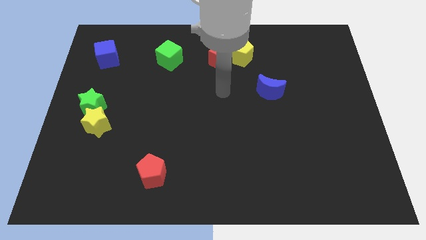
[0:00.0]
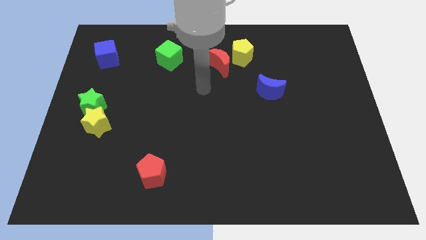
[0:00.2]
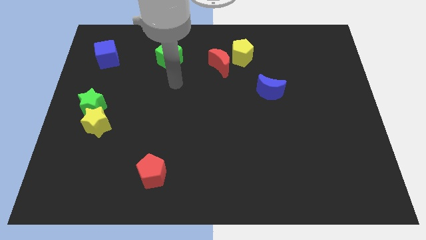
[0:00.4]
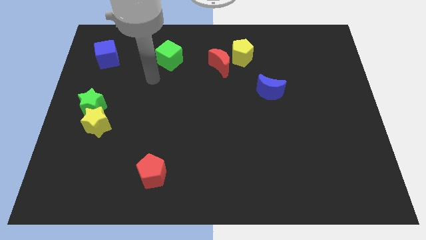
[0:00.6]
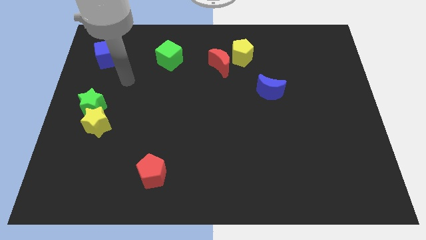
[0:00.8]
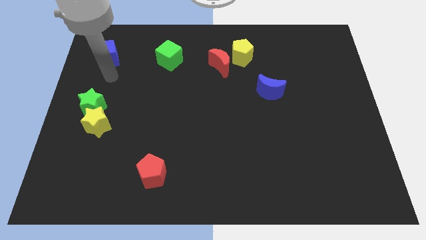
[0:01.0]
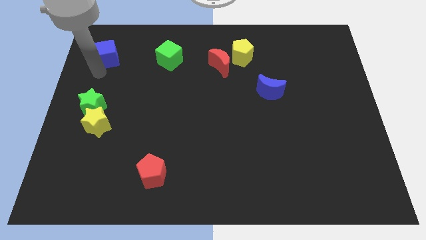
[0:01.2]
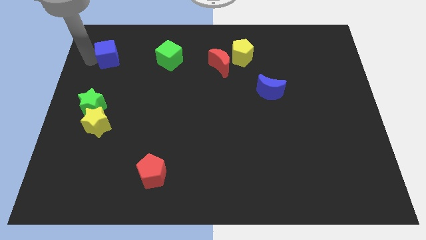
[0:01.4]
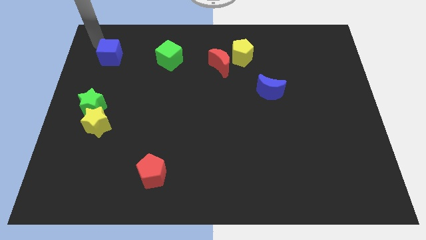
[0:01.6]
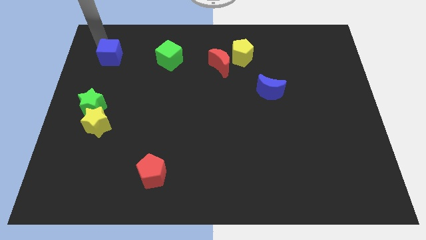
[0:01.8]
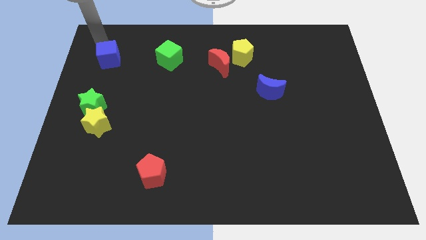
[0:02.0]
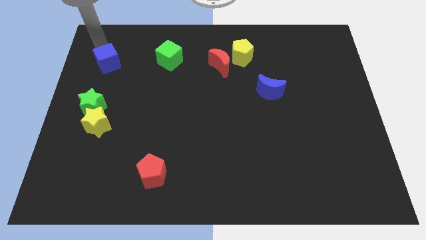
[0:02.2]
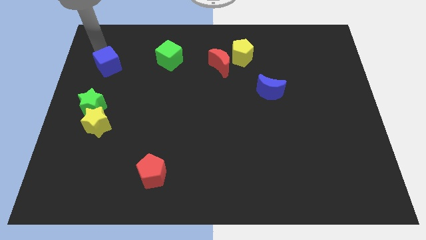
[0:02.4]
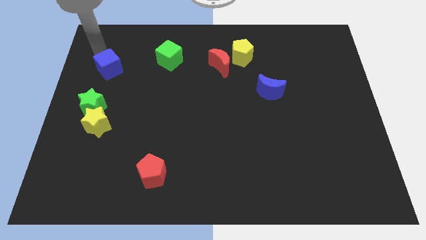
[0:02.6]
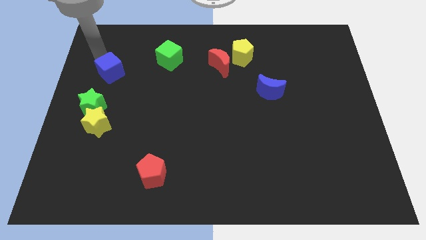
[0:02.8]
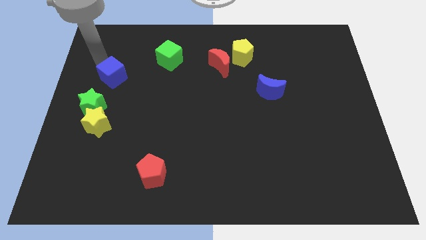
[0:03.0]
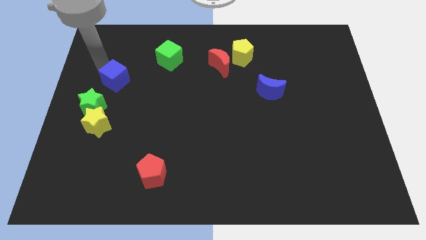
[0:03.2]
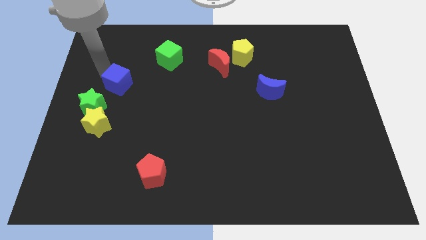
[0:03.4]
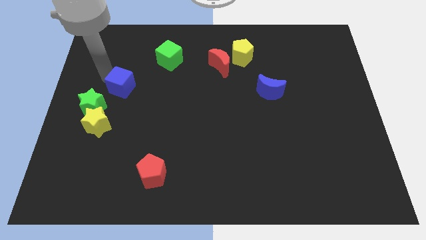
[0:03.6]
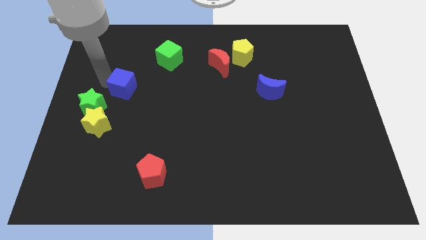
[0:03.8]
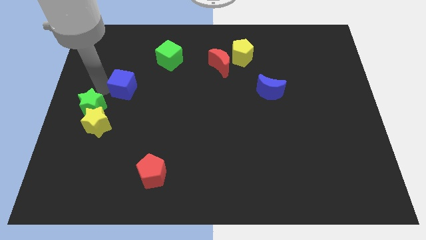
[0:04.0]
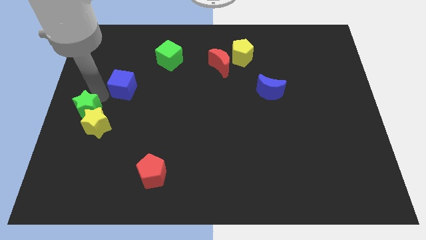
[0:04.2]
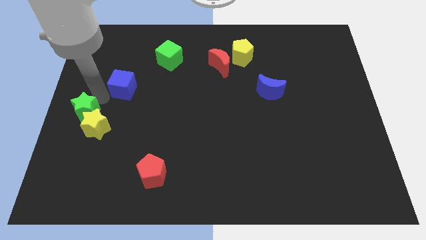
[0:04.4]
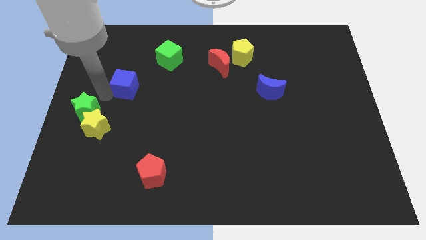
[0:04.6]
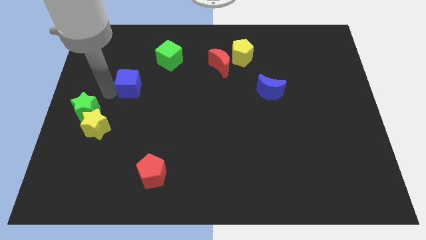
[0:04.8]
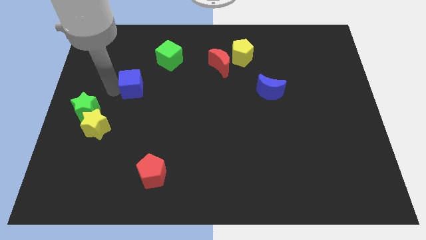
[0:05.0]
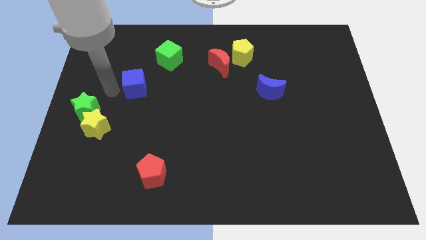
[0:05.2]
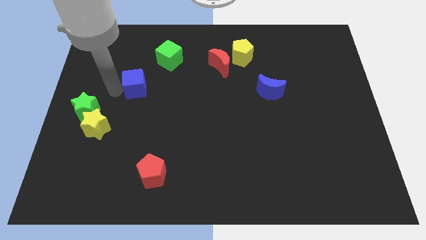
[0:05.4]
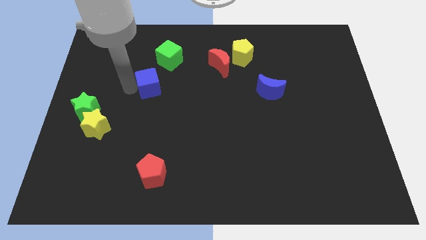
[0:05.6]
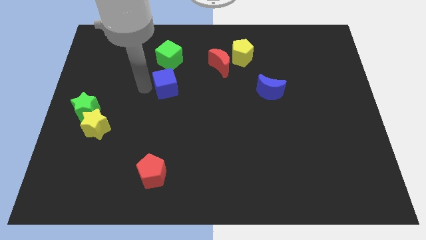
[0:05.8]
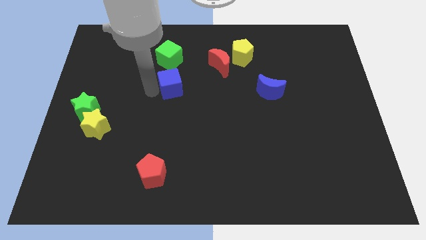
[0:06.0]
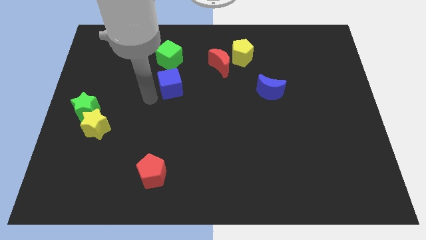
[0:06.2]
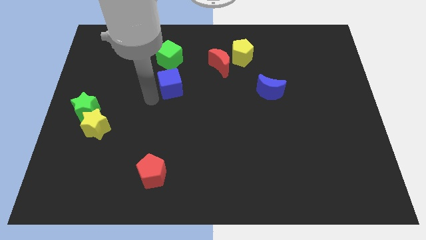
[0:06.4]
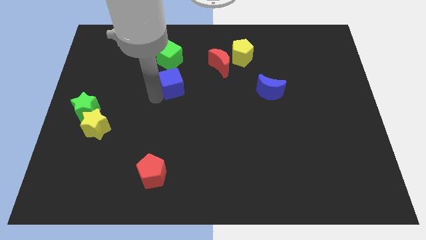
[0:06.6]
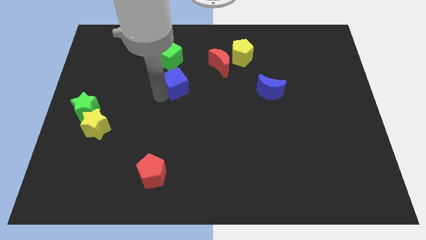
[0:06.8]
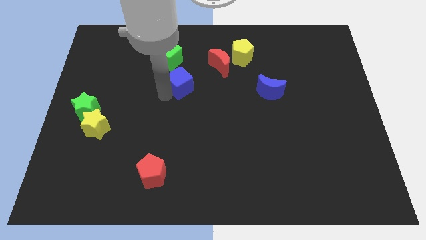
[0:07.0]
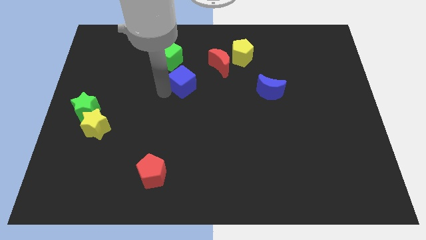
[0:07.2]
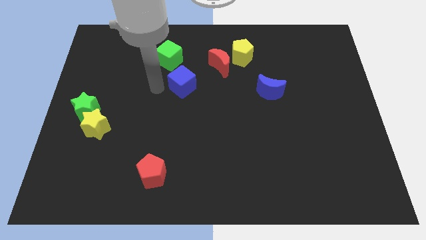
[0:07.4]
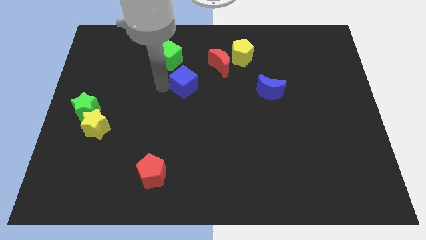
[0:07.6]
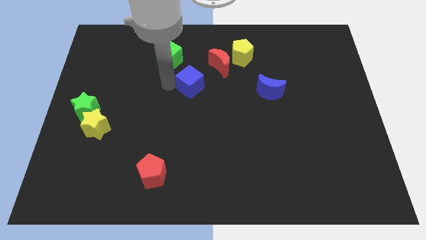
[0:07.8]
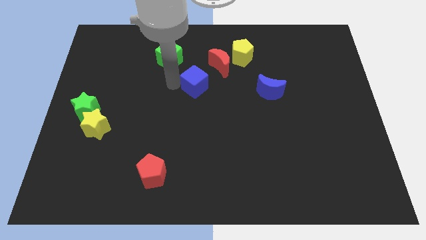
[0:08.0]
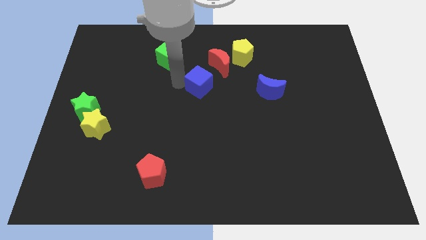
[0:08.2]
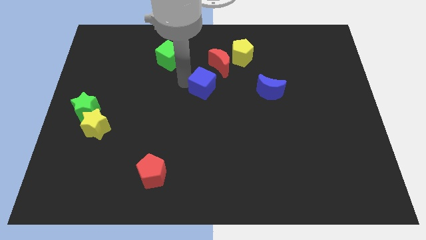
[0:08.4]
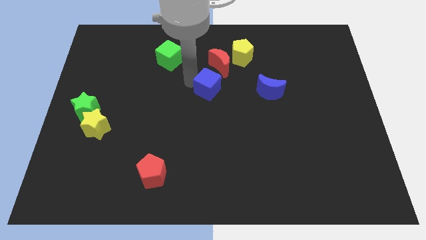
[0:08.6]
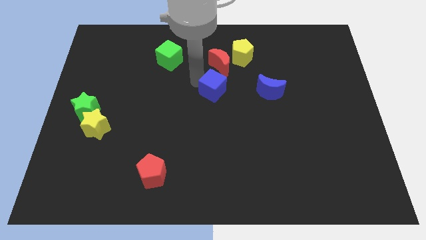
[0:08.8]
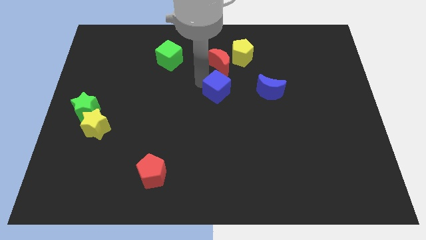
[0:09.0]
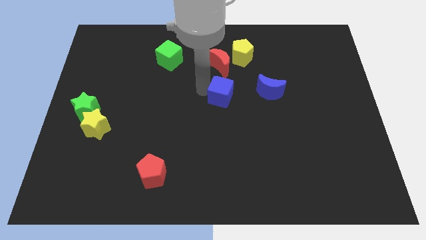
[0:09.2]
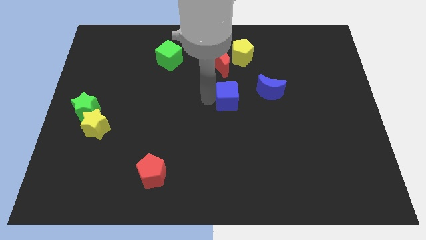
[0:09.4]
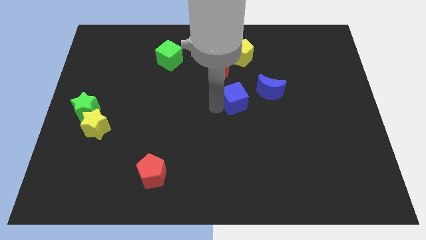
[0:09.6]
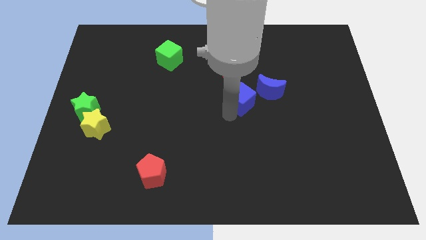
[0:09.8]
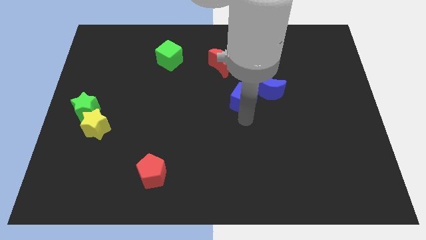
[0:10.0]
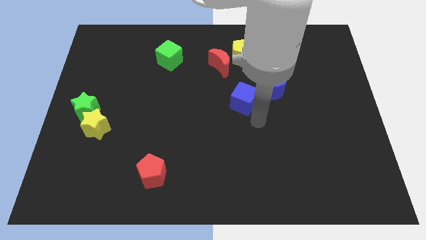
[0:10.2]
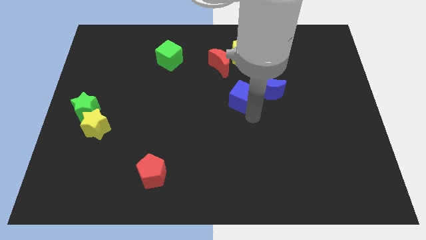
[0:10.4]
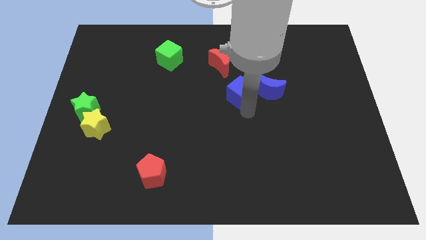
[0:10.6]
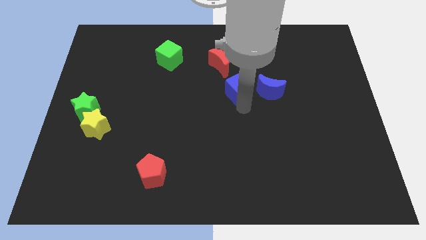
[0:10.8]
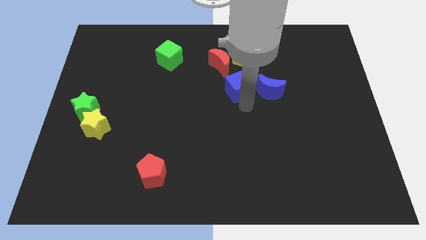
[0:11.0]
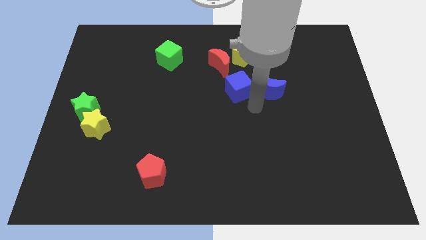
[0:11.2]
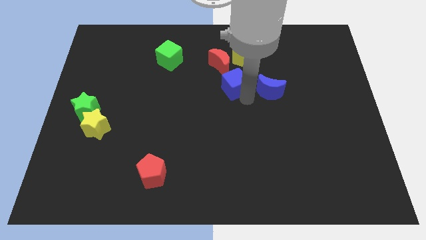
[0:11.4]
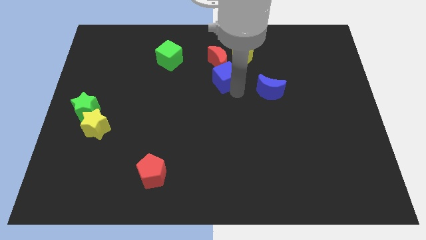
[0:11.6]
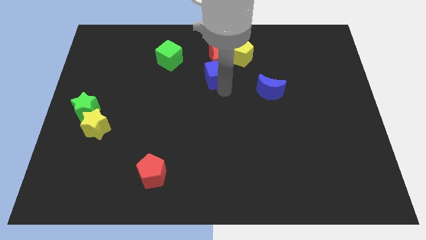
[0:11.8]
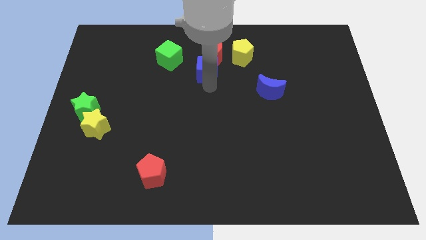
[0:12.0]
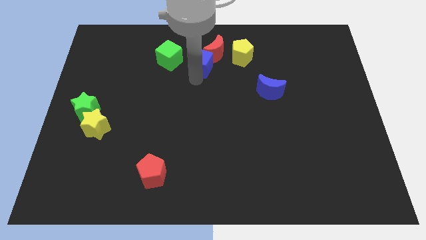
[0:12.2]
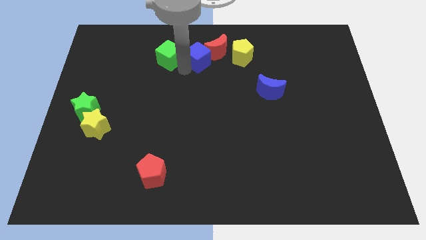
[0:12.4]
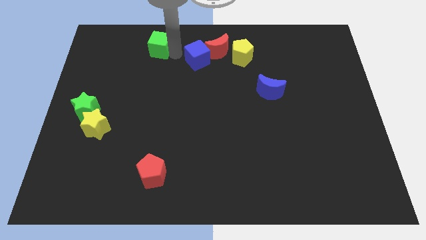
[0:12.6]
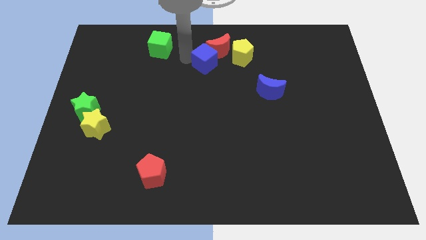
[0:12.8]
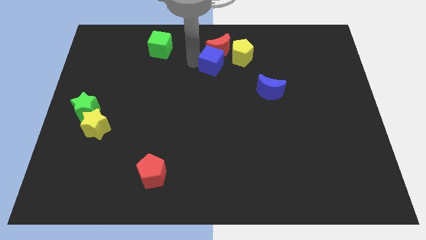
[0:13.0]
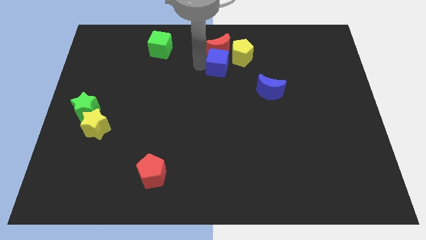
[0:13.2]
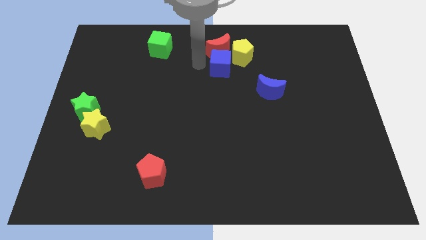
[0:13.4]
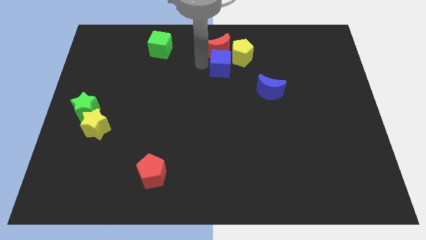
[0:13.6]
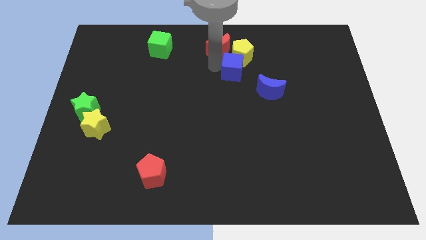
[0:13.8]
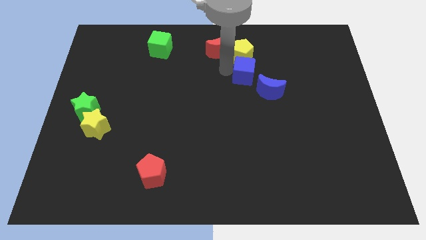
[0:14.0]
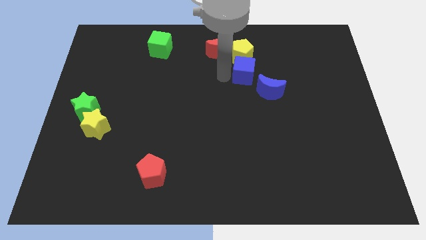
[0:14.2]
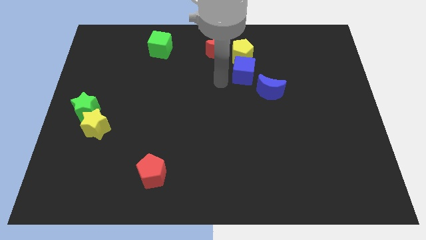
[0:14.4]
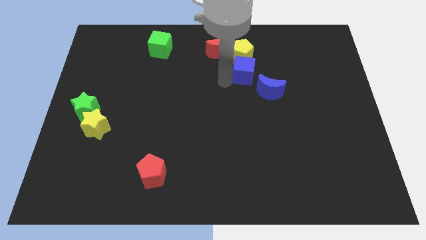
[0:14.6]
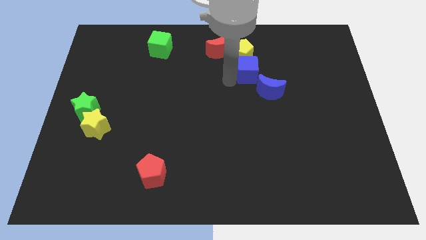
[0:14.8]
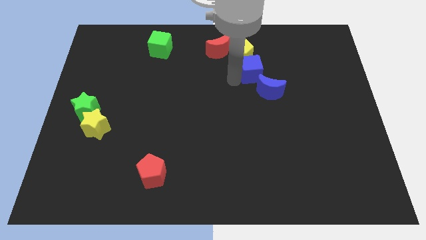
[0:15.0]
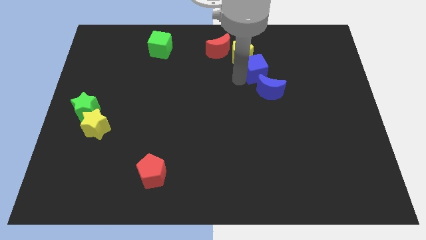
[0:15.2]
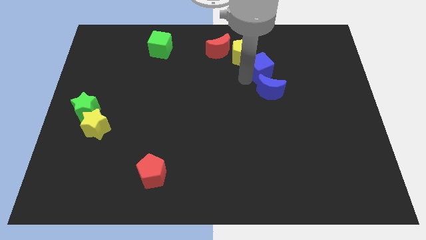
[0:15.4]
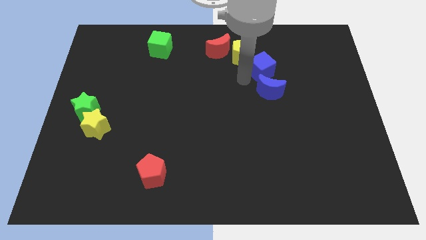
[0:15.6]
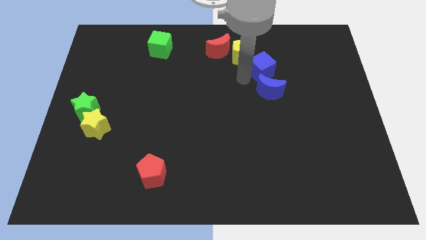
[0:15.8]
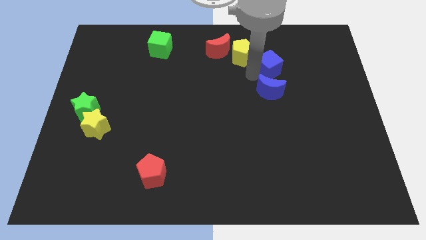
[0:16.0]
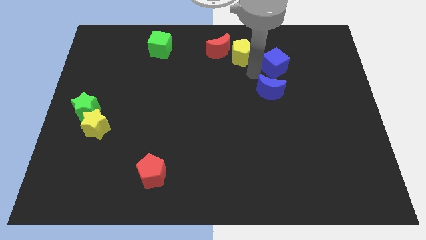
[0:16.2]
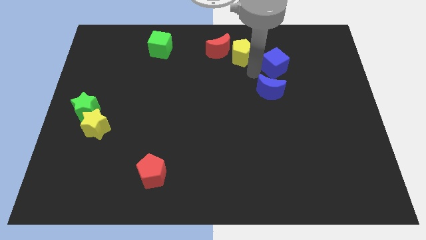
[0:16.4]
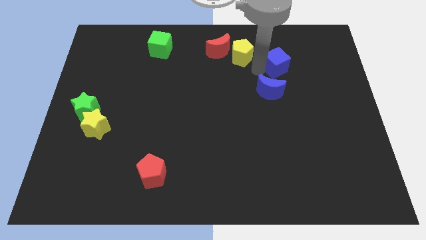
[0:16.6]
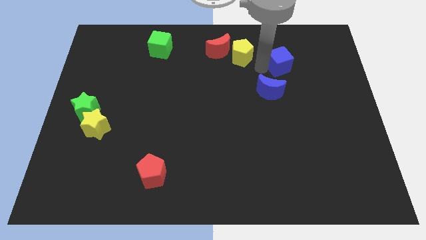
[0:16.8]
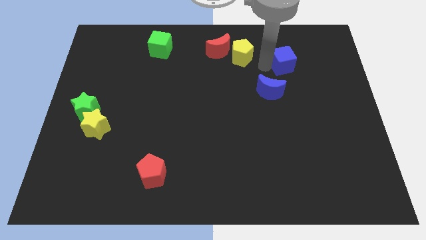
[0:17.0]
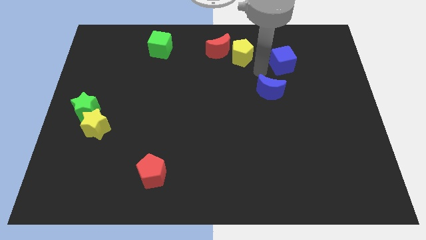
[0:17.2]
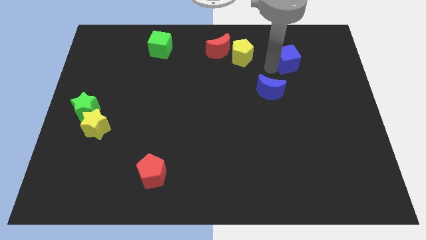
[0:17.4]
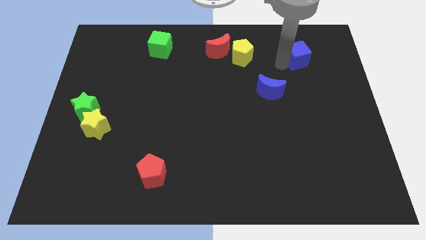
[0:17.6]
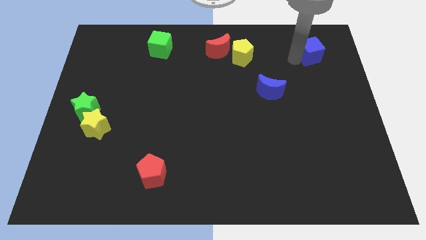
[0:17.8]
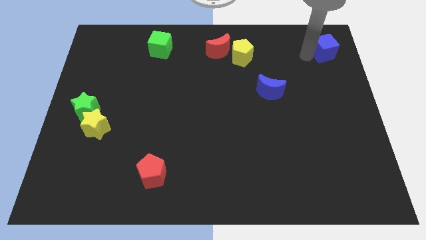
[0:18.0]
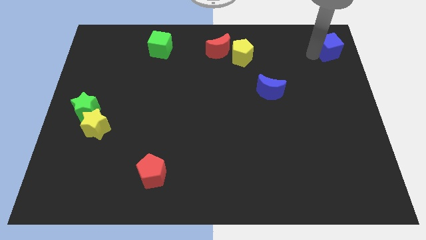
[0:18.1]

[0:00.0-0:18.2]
slide the blue cube to the top right of the board
